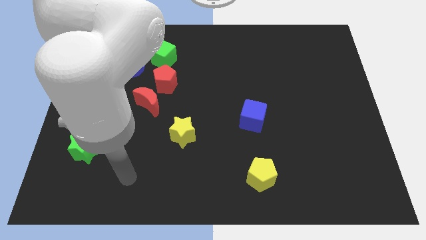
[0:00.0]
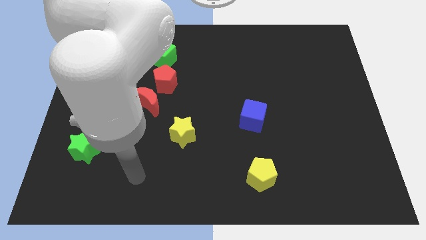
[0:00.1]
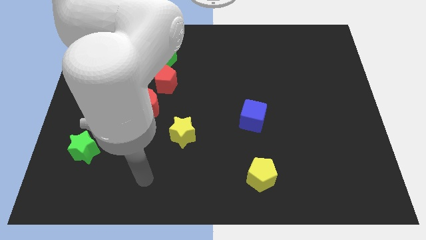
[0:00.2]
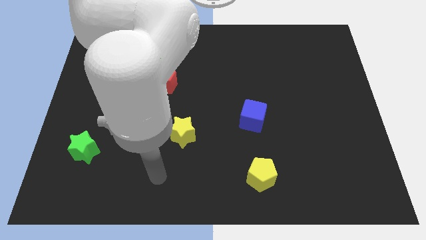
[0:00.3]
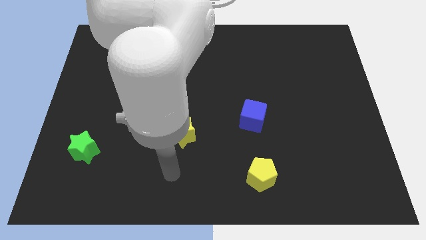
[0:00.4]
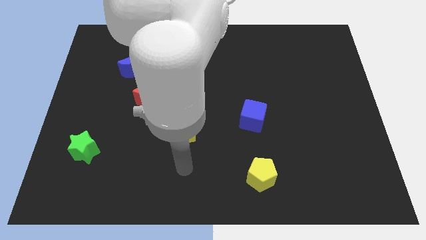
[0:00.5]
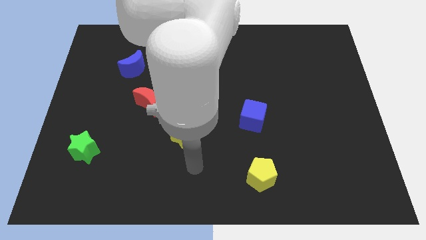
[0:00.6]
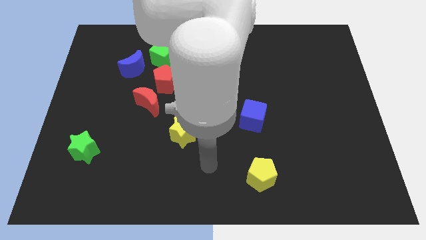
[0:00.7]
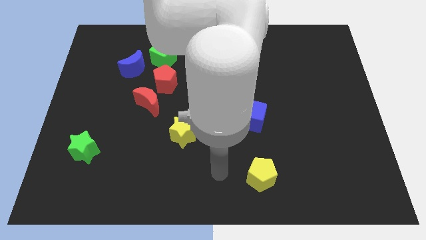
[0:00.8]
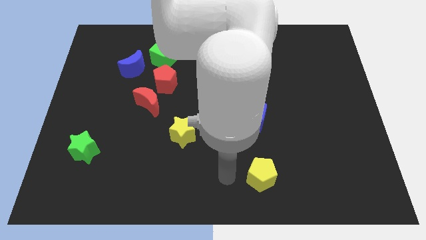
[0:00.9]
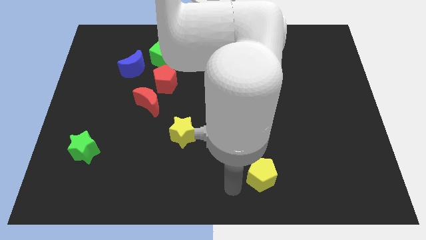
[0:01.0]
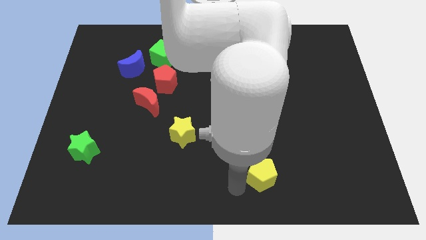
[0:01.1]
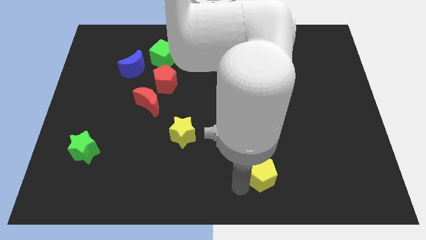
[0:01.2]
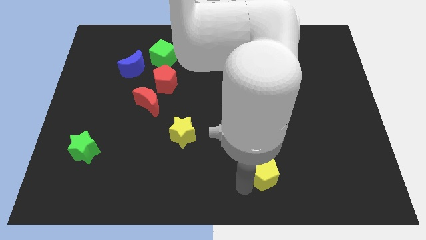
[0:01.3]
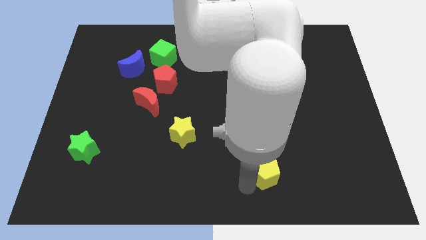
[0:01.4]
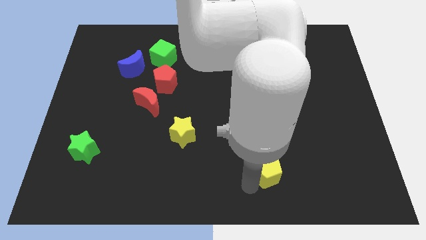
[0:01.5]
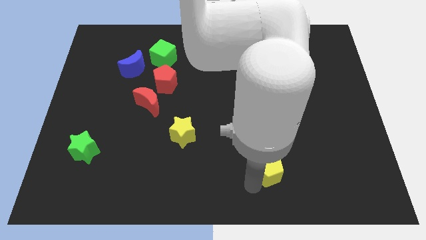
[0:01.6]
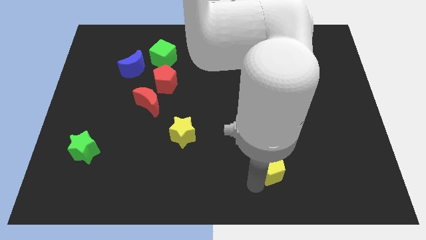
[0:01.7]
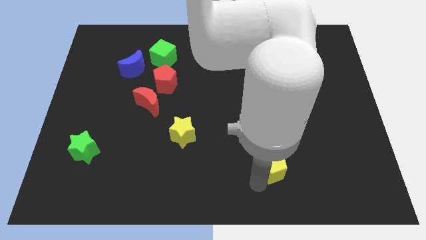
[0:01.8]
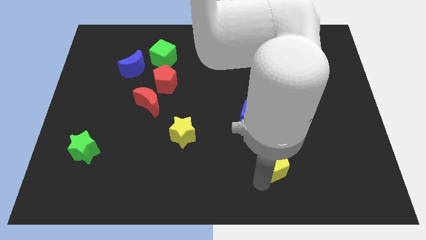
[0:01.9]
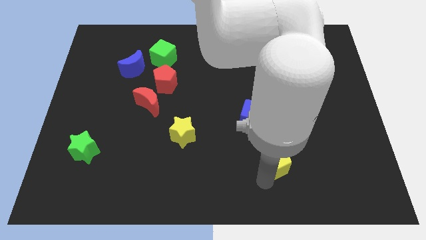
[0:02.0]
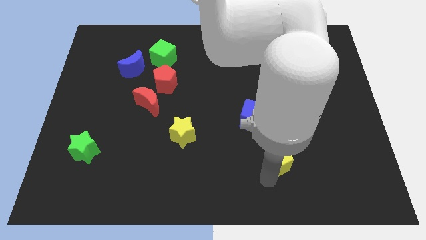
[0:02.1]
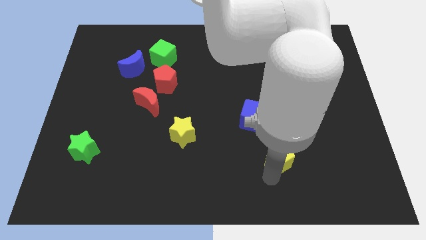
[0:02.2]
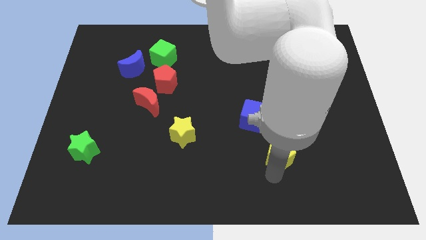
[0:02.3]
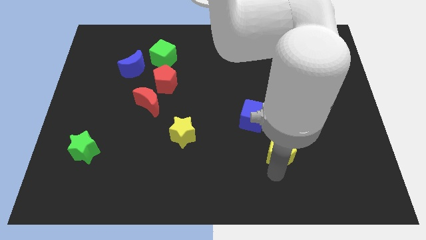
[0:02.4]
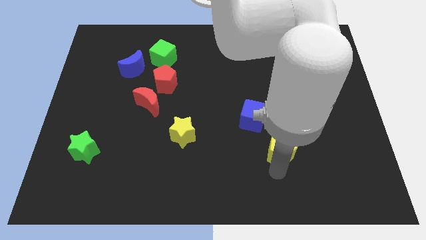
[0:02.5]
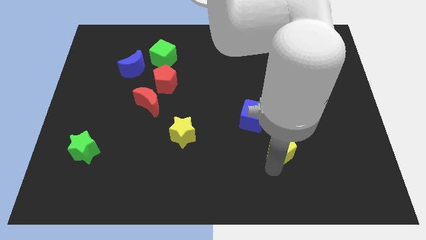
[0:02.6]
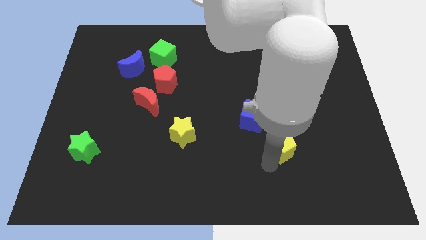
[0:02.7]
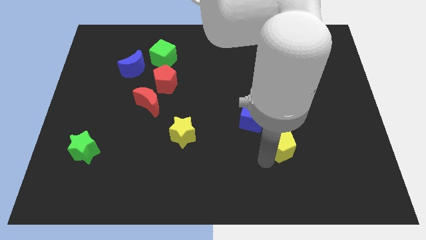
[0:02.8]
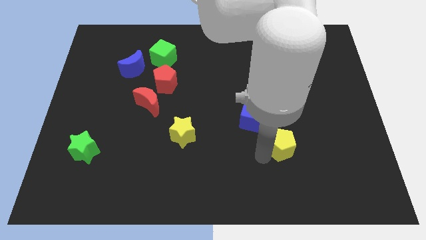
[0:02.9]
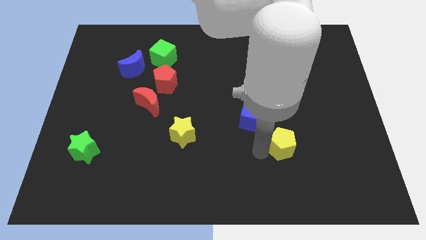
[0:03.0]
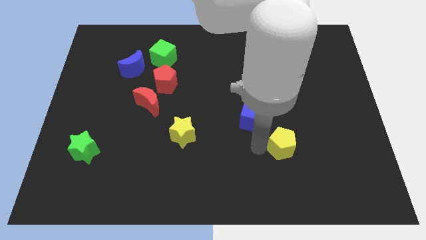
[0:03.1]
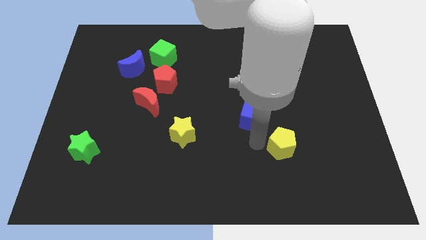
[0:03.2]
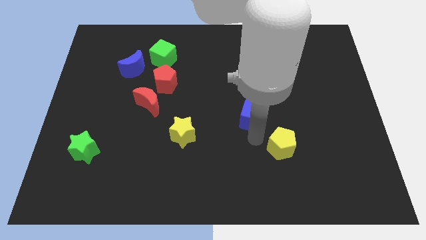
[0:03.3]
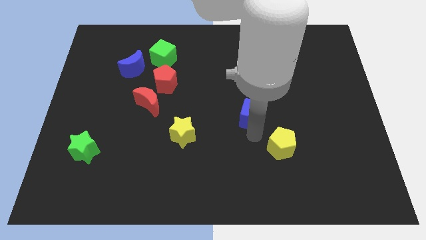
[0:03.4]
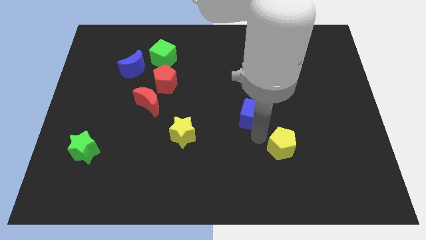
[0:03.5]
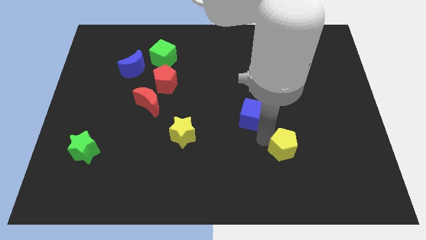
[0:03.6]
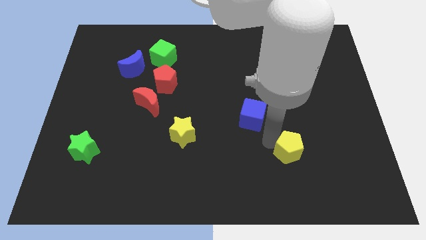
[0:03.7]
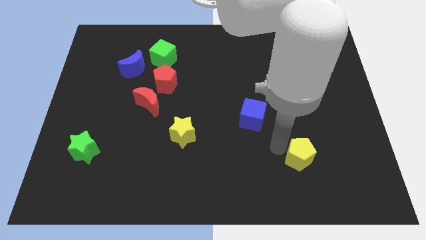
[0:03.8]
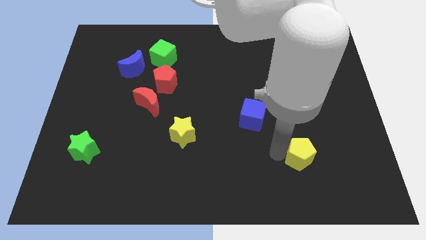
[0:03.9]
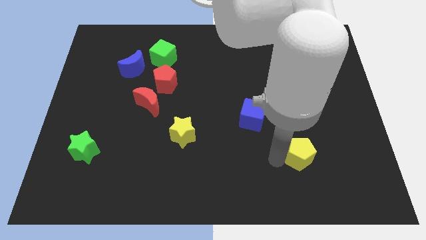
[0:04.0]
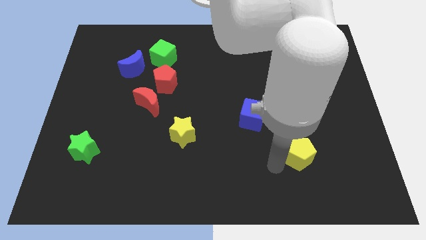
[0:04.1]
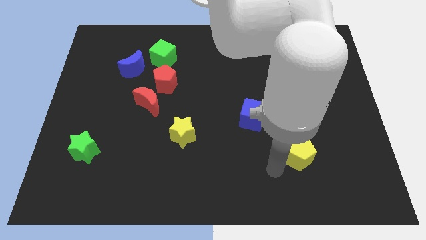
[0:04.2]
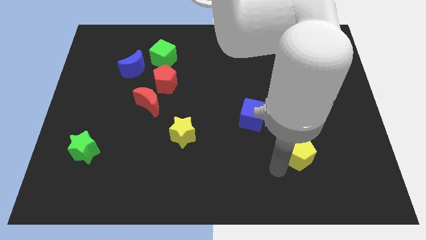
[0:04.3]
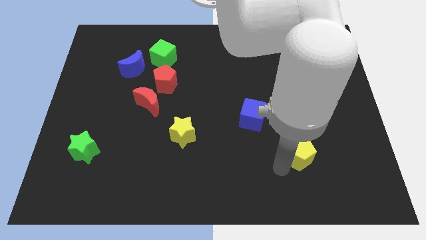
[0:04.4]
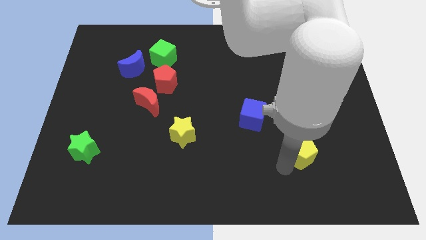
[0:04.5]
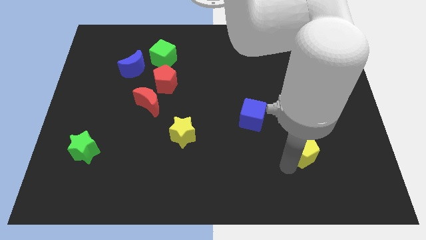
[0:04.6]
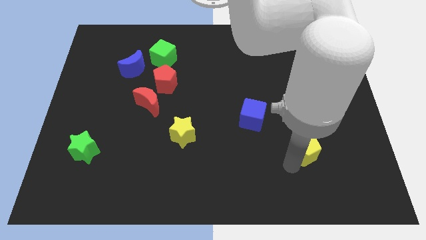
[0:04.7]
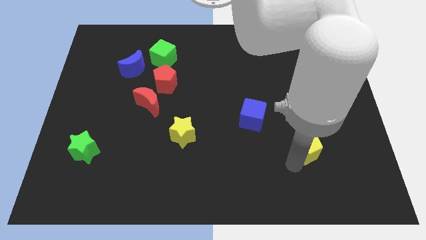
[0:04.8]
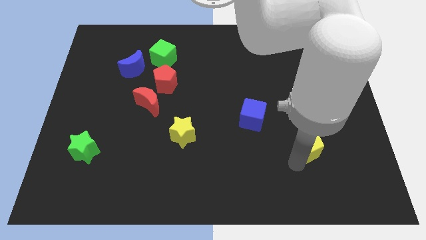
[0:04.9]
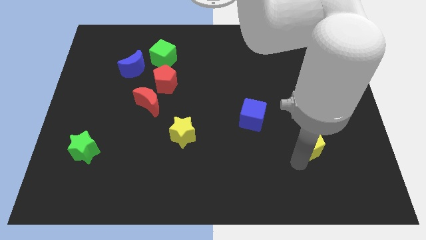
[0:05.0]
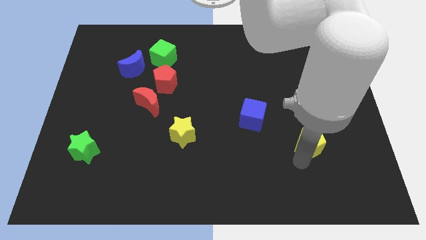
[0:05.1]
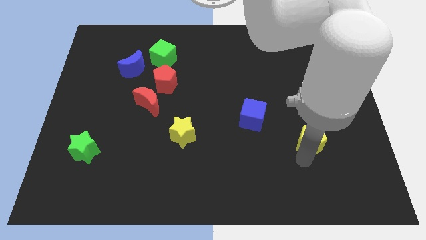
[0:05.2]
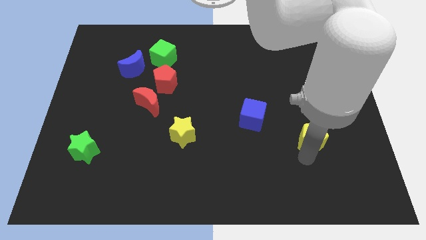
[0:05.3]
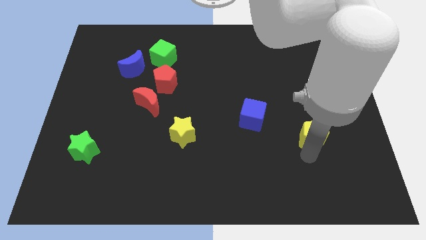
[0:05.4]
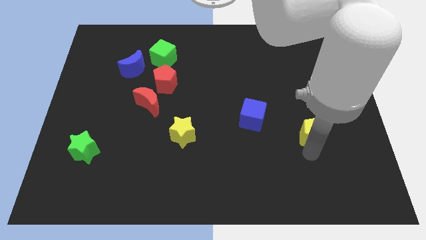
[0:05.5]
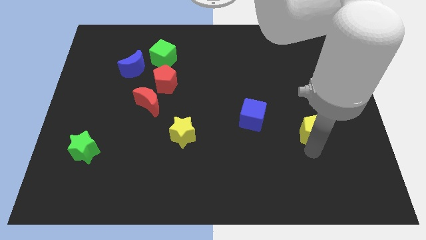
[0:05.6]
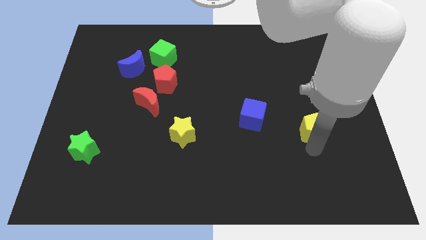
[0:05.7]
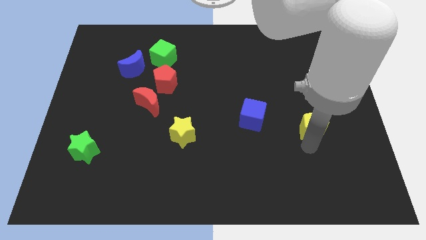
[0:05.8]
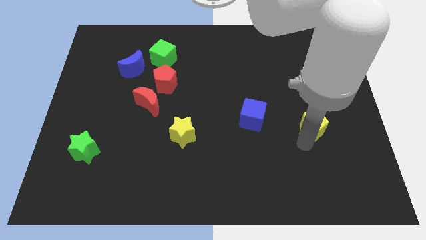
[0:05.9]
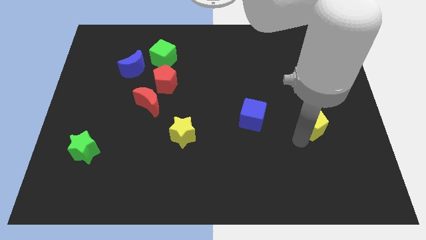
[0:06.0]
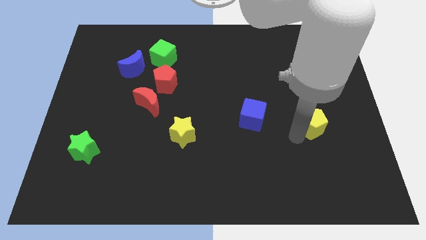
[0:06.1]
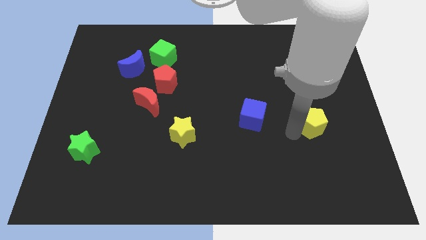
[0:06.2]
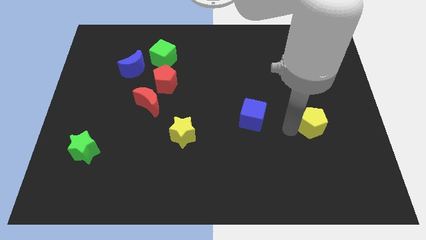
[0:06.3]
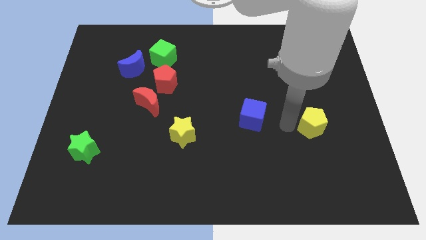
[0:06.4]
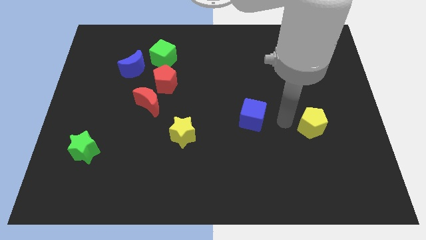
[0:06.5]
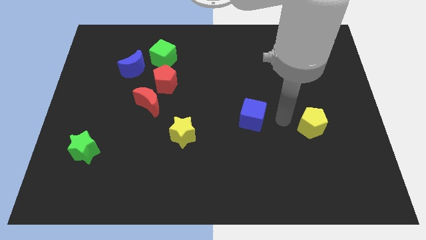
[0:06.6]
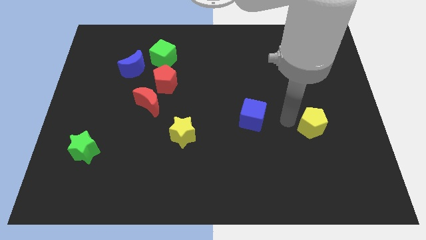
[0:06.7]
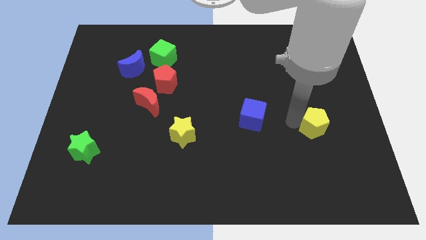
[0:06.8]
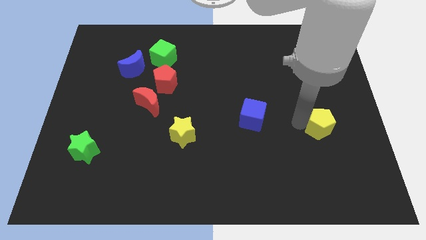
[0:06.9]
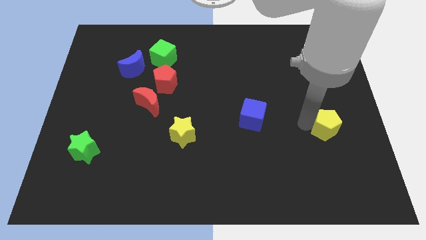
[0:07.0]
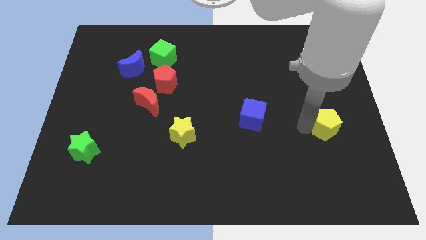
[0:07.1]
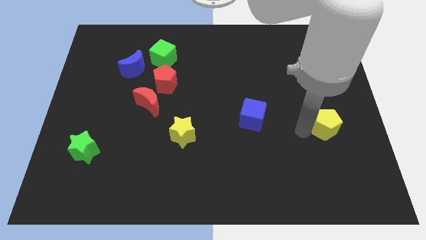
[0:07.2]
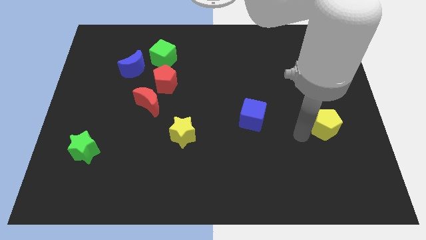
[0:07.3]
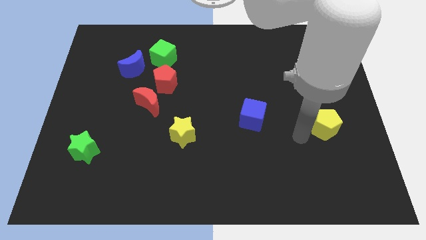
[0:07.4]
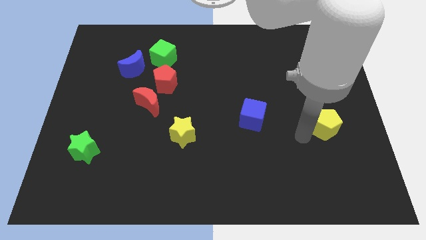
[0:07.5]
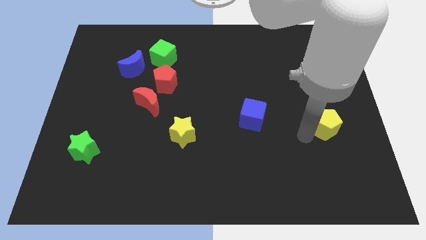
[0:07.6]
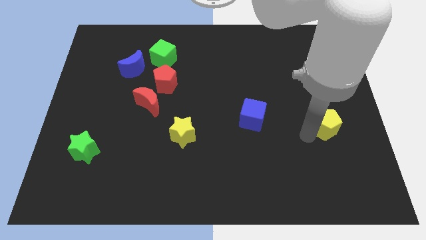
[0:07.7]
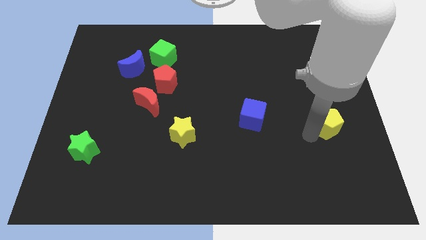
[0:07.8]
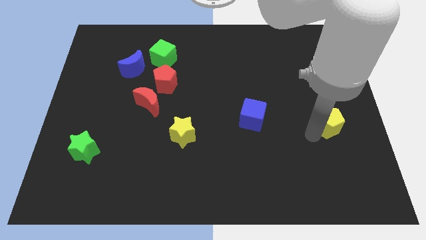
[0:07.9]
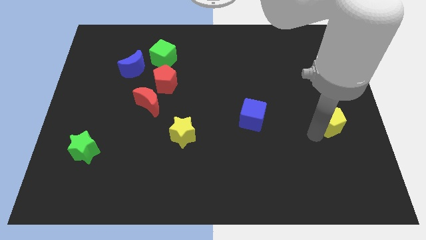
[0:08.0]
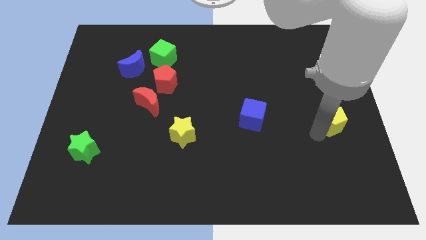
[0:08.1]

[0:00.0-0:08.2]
put the yellow pentagon to the right side of the board
